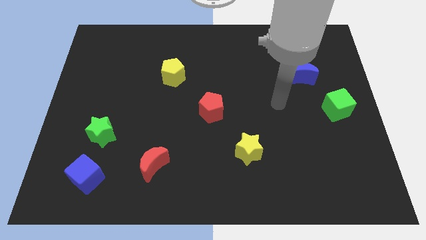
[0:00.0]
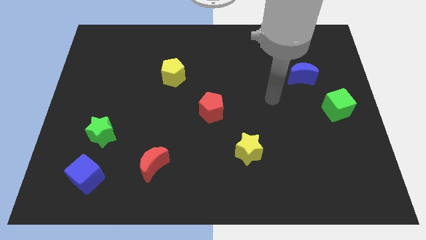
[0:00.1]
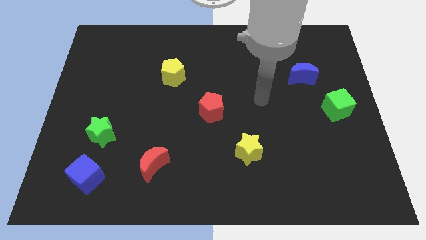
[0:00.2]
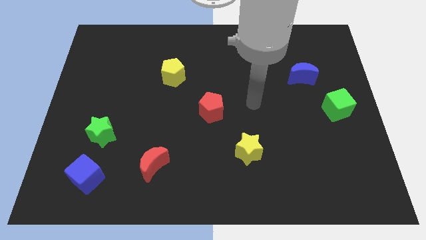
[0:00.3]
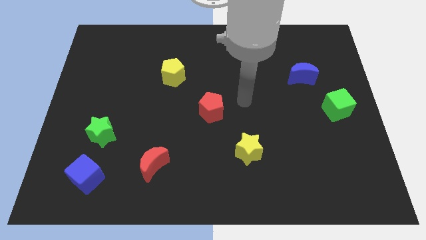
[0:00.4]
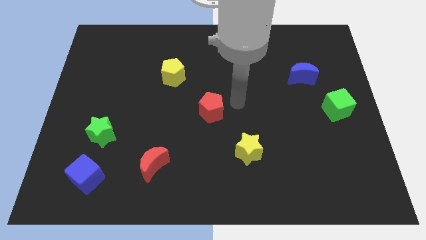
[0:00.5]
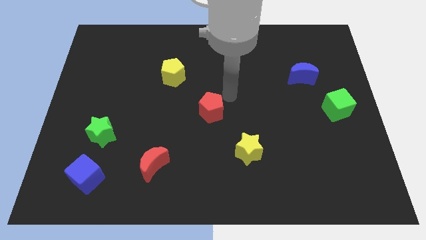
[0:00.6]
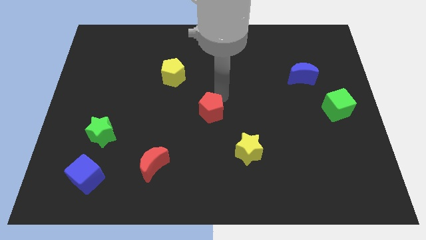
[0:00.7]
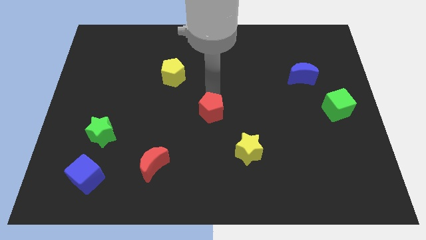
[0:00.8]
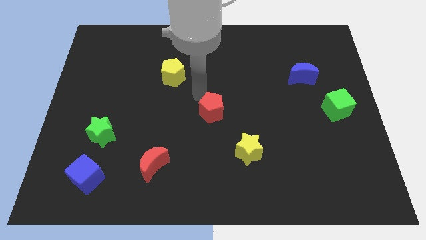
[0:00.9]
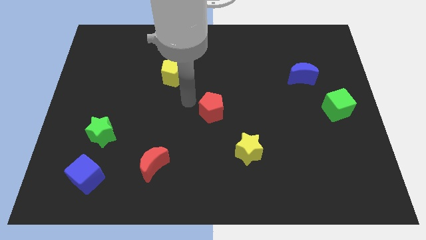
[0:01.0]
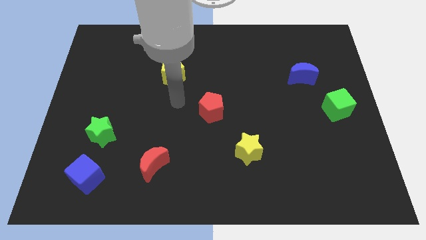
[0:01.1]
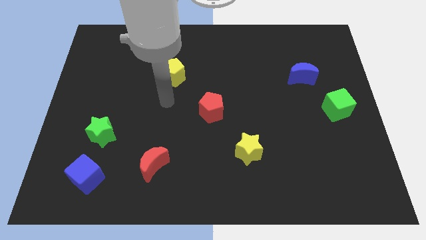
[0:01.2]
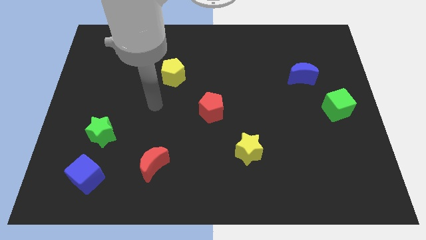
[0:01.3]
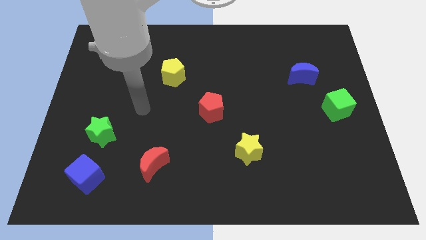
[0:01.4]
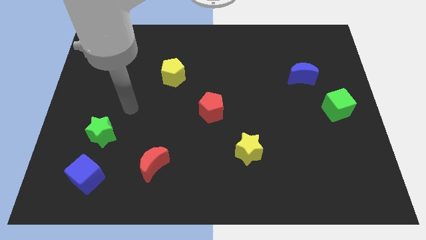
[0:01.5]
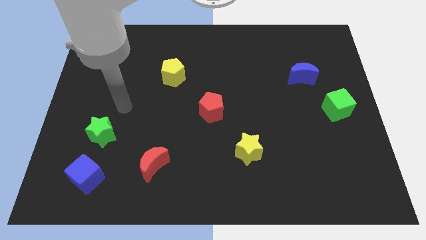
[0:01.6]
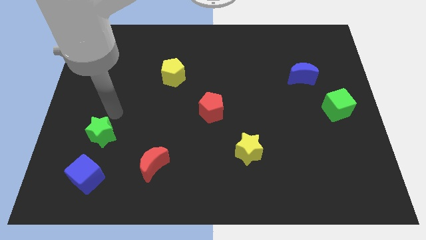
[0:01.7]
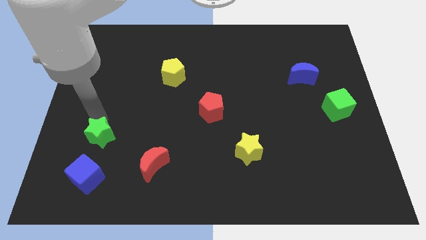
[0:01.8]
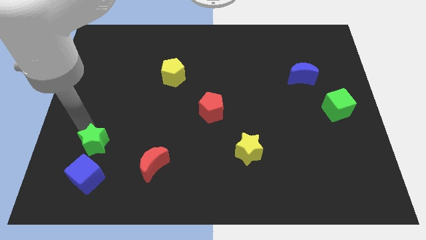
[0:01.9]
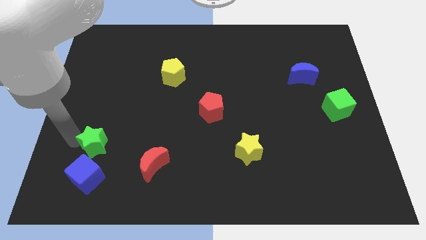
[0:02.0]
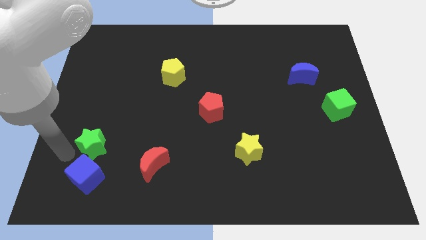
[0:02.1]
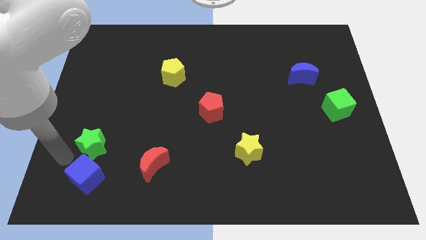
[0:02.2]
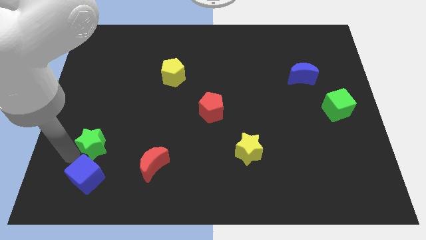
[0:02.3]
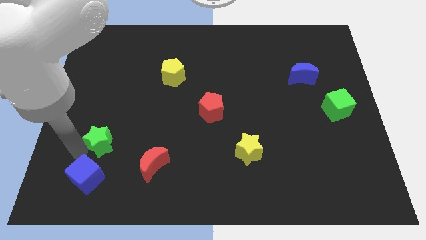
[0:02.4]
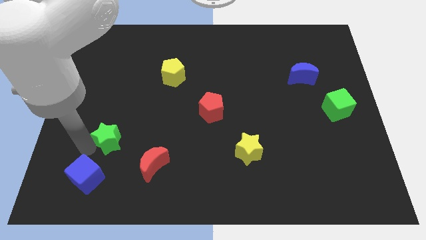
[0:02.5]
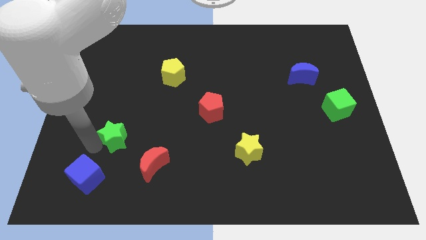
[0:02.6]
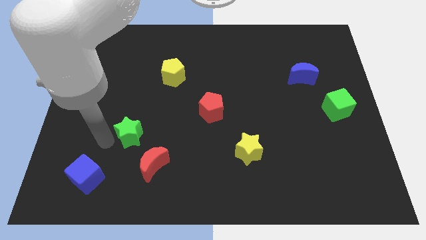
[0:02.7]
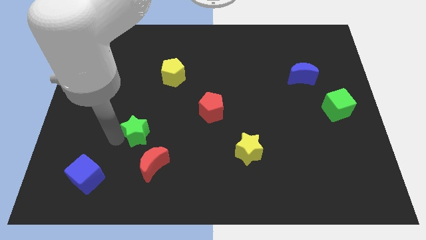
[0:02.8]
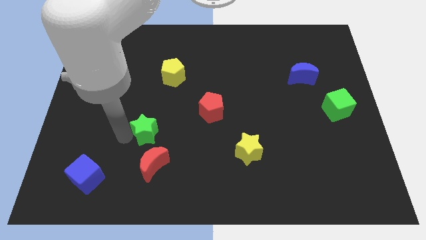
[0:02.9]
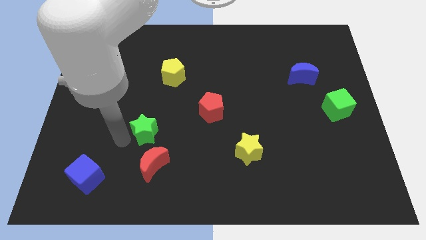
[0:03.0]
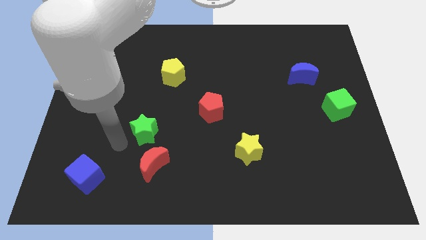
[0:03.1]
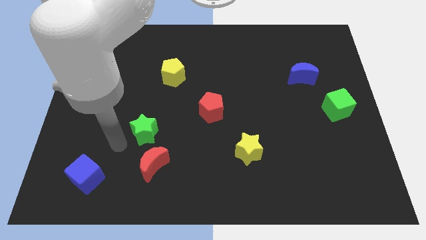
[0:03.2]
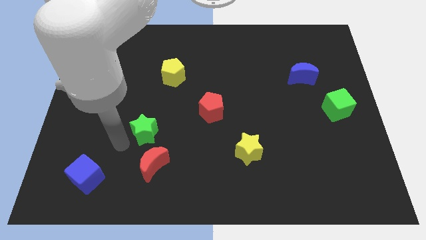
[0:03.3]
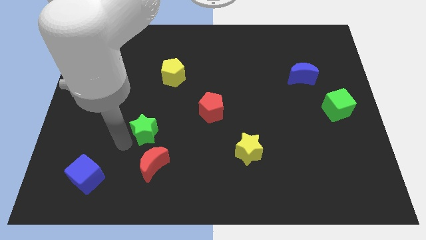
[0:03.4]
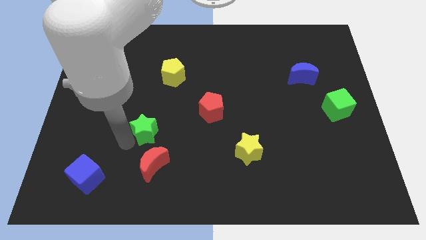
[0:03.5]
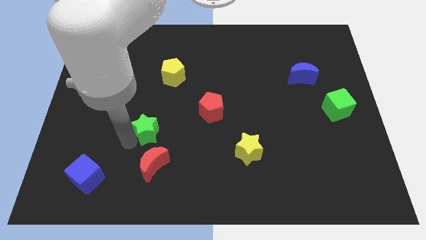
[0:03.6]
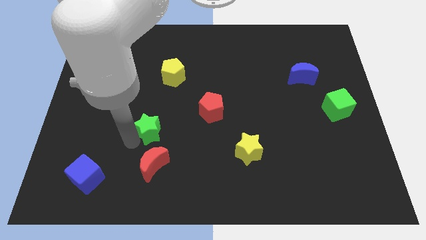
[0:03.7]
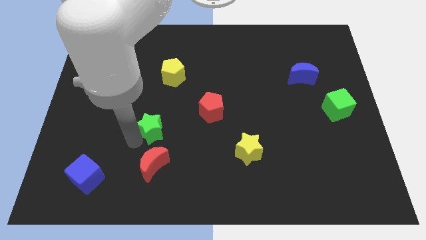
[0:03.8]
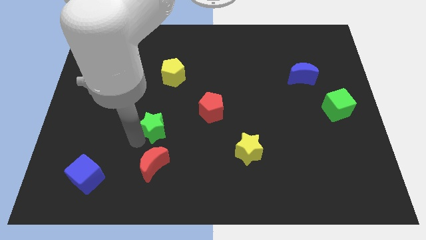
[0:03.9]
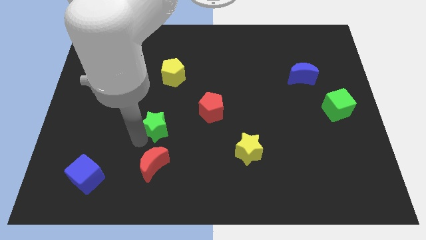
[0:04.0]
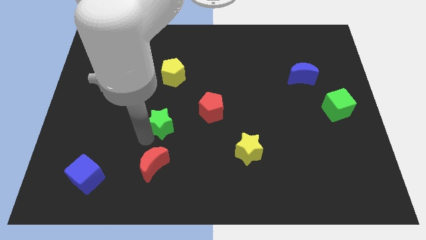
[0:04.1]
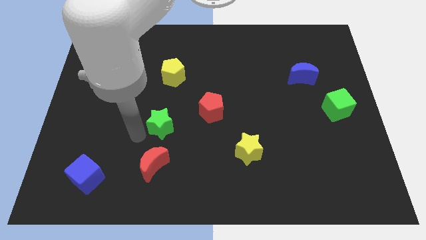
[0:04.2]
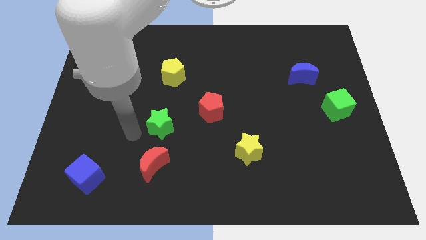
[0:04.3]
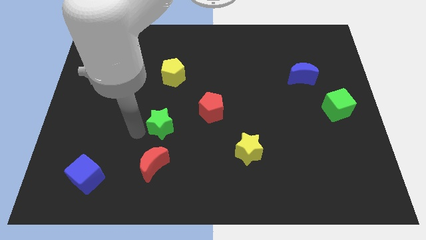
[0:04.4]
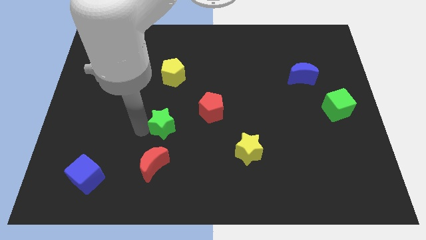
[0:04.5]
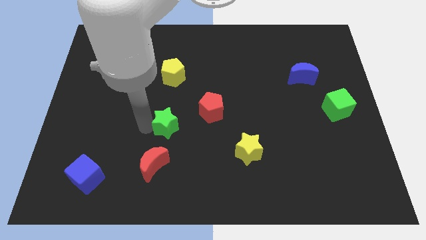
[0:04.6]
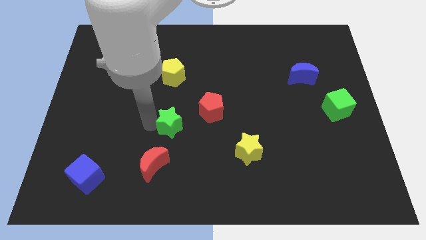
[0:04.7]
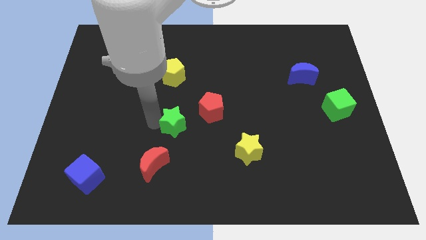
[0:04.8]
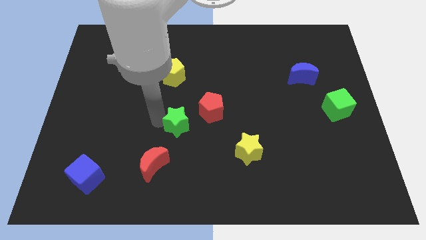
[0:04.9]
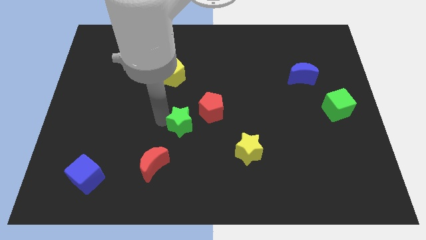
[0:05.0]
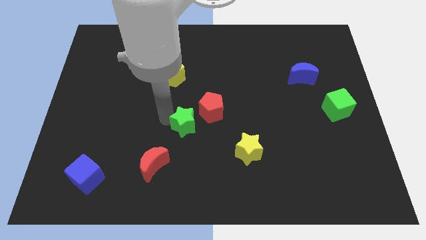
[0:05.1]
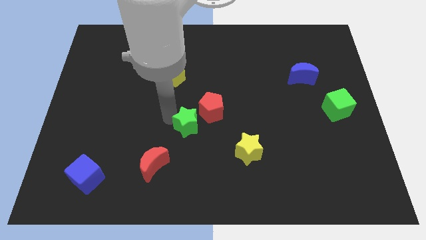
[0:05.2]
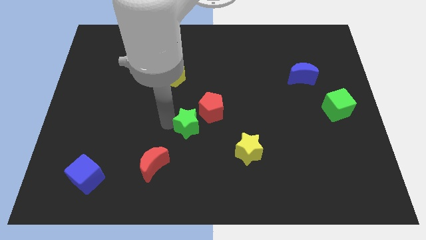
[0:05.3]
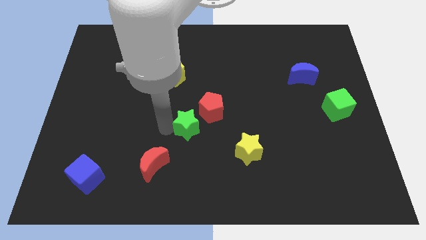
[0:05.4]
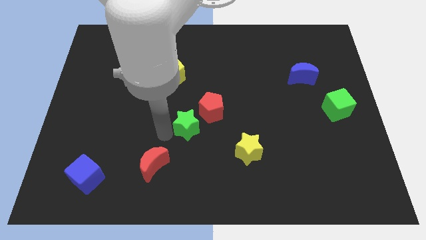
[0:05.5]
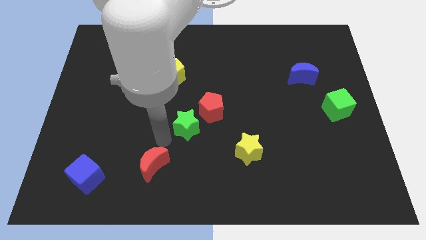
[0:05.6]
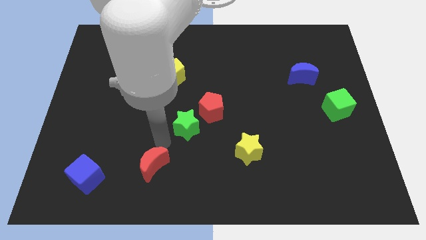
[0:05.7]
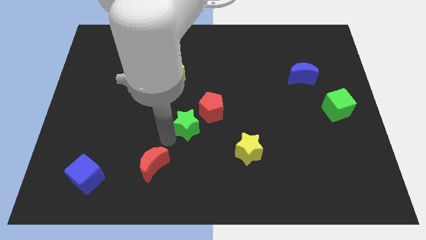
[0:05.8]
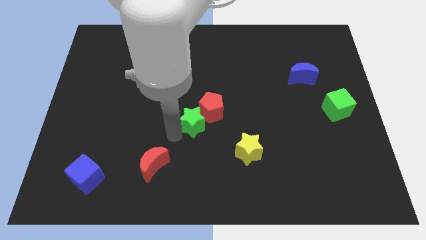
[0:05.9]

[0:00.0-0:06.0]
move the green star next to the red pentagon

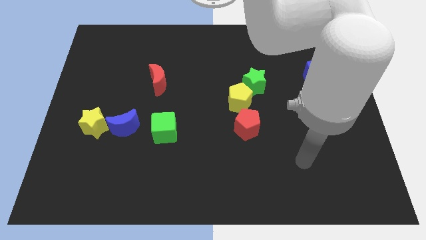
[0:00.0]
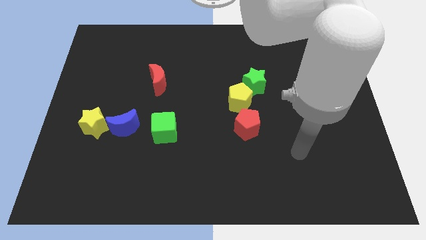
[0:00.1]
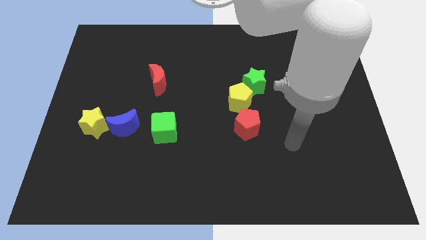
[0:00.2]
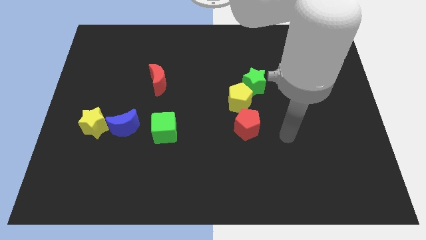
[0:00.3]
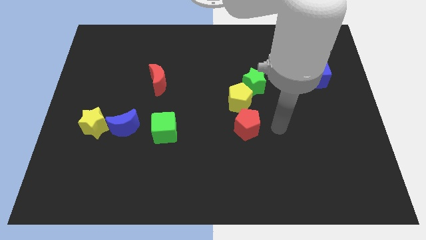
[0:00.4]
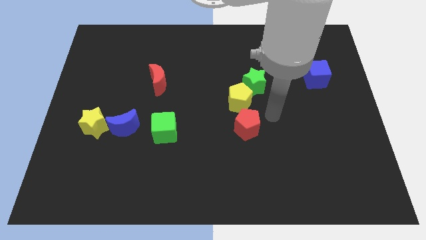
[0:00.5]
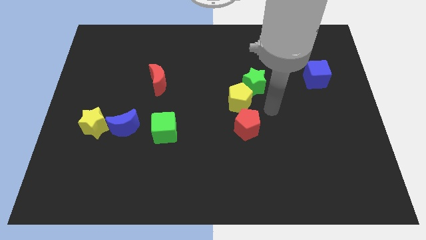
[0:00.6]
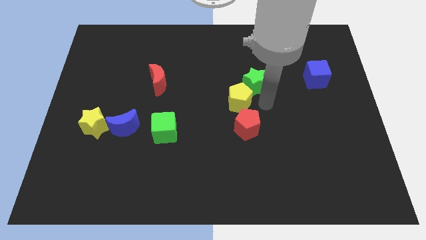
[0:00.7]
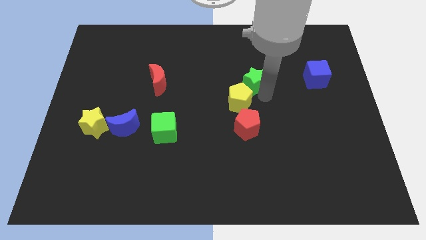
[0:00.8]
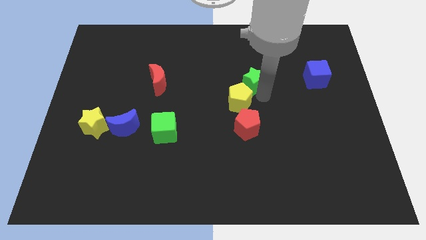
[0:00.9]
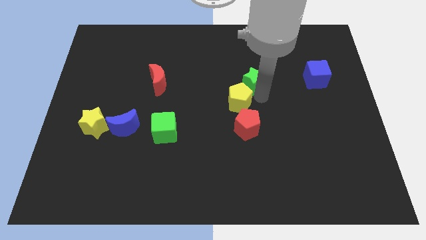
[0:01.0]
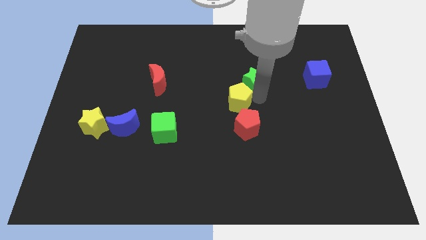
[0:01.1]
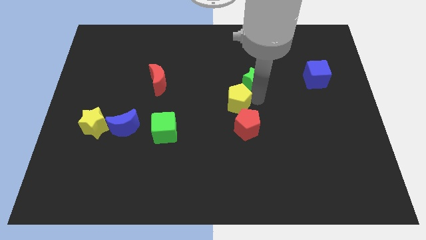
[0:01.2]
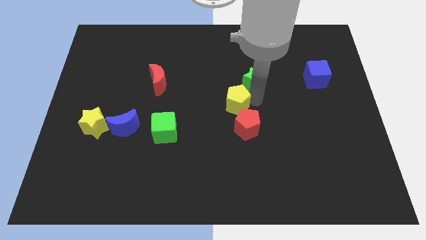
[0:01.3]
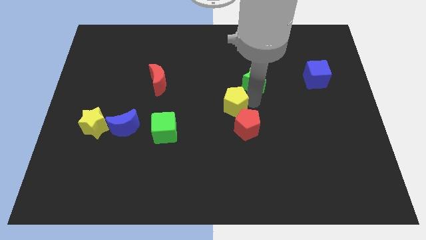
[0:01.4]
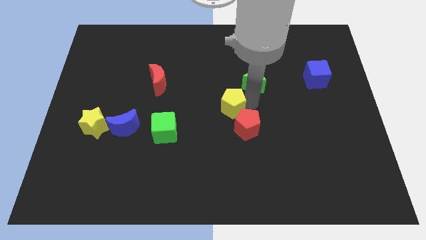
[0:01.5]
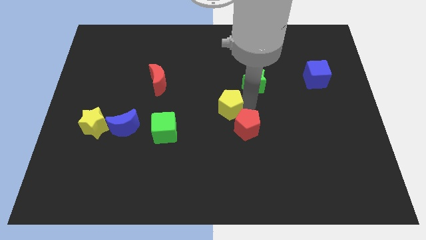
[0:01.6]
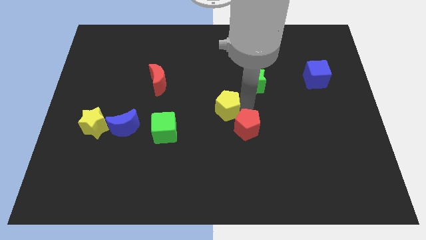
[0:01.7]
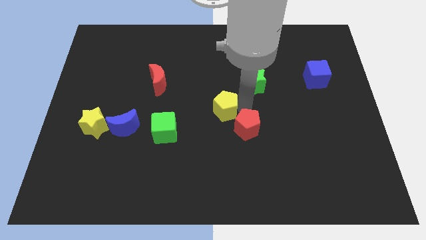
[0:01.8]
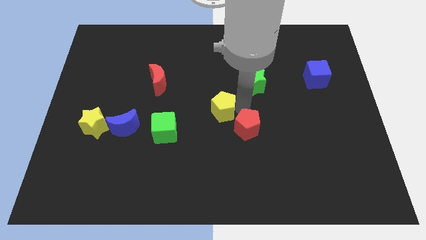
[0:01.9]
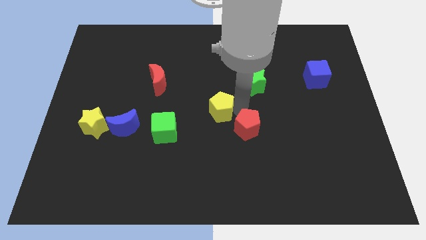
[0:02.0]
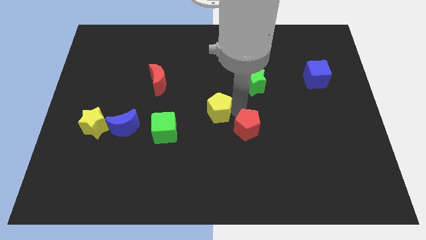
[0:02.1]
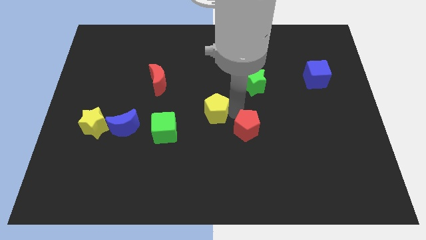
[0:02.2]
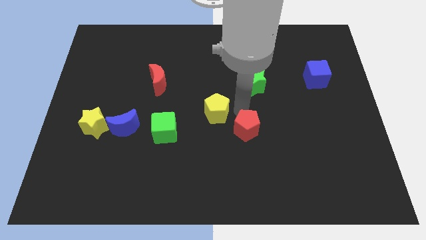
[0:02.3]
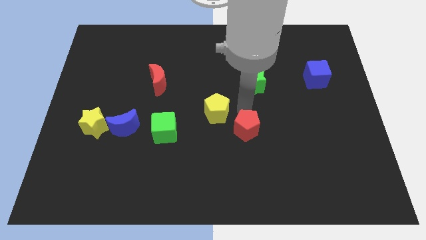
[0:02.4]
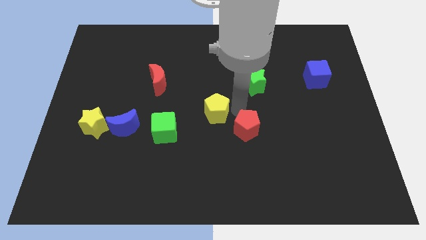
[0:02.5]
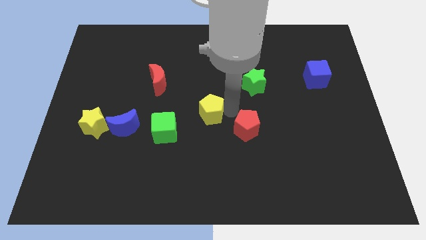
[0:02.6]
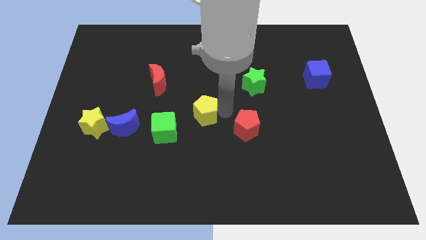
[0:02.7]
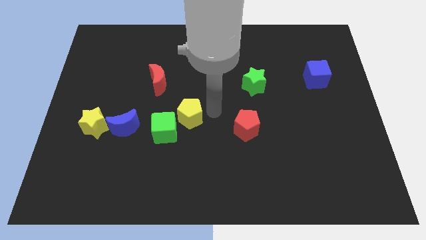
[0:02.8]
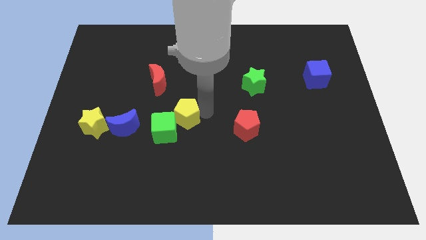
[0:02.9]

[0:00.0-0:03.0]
push the yellow pentagon close to the green cube
